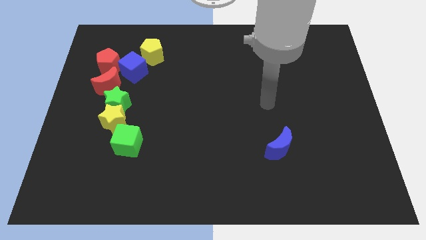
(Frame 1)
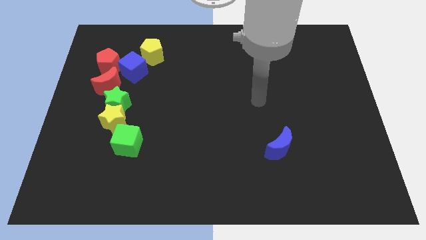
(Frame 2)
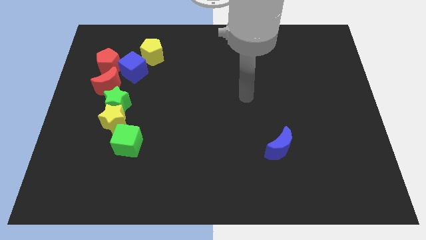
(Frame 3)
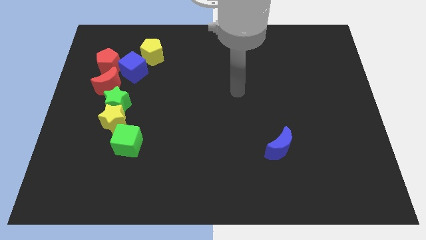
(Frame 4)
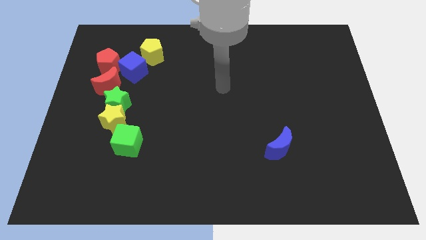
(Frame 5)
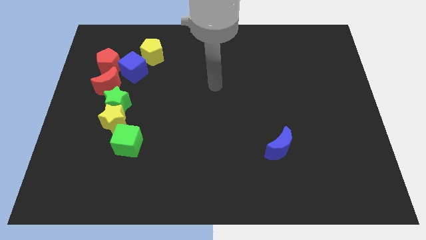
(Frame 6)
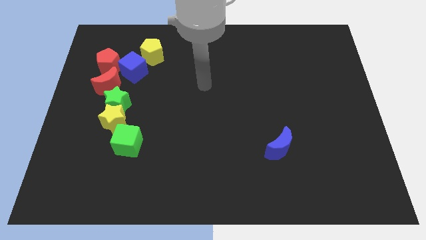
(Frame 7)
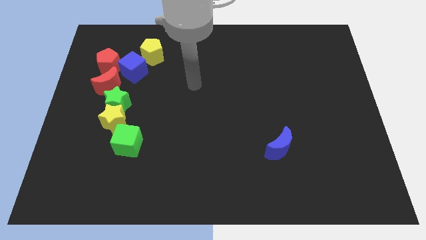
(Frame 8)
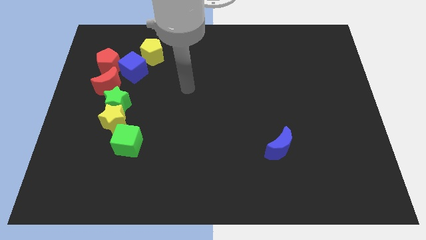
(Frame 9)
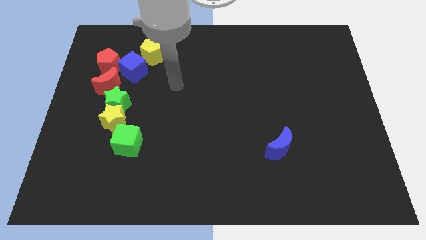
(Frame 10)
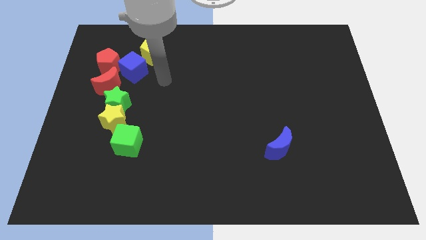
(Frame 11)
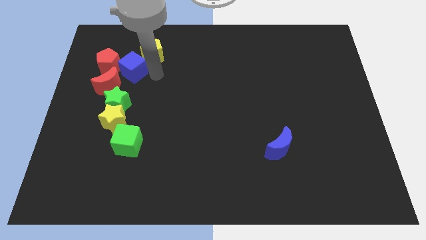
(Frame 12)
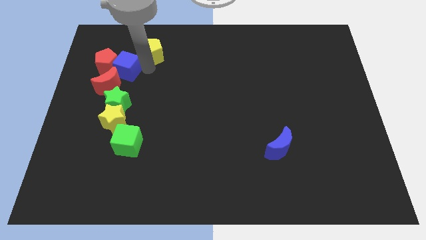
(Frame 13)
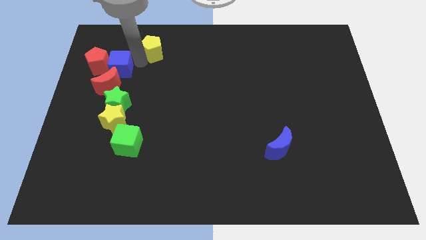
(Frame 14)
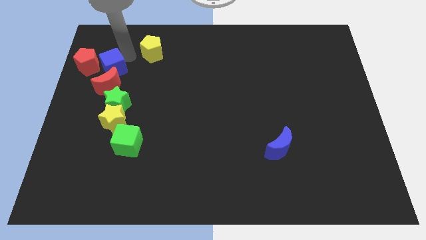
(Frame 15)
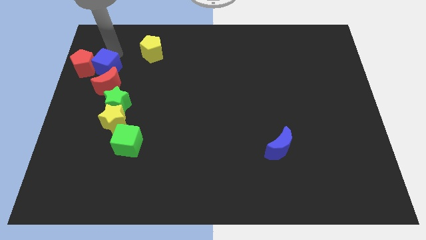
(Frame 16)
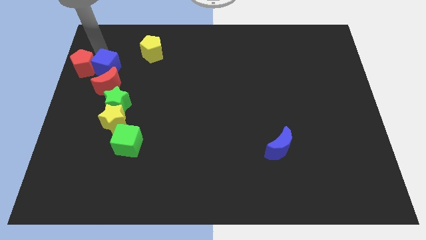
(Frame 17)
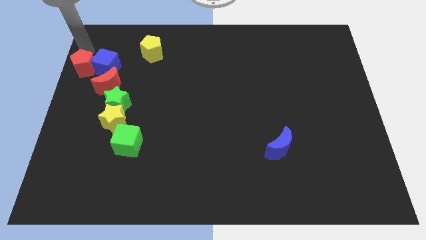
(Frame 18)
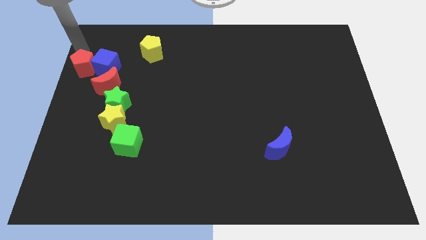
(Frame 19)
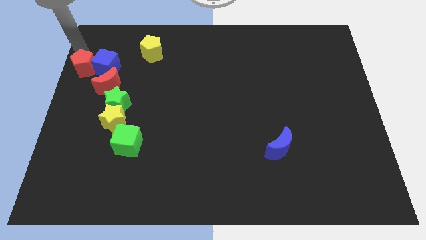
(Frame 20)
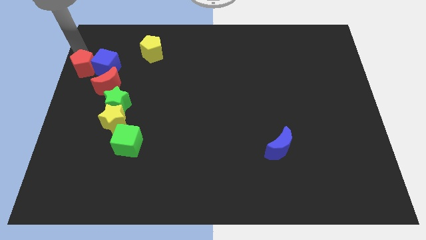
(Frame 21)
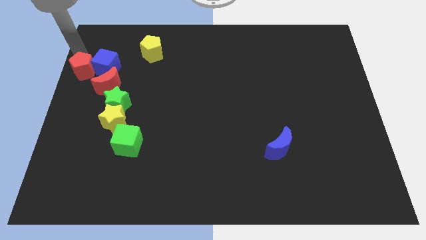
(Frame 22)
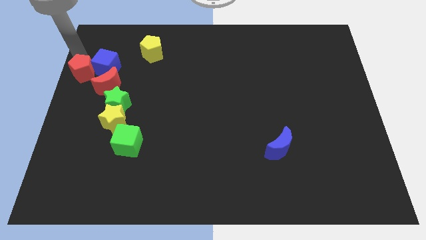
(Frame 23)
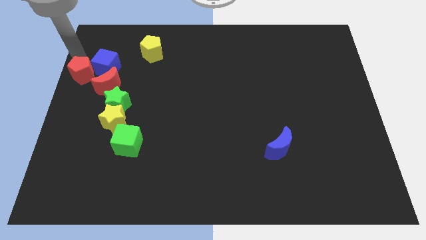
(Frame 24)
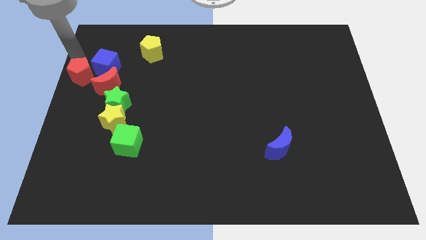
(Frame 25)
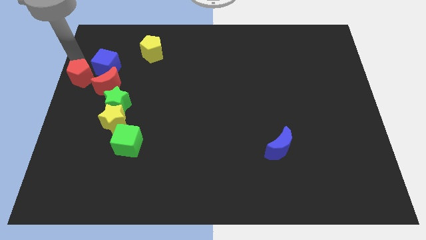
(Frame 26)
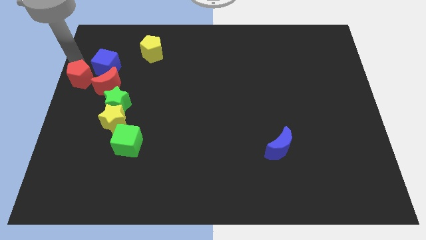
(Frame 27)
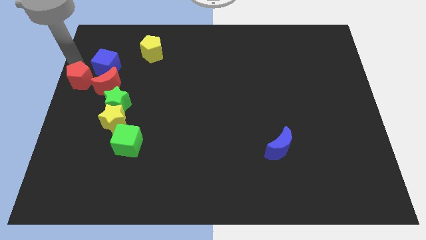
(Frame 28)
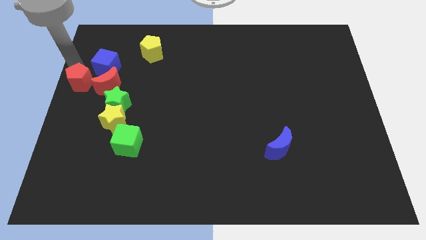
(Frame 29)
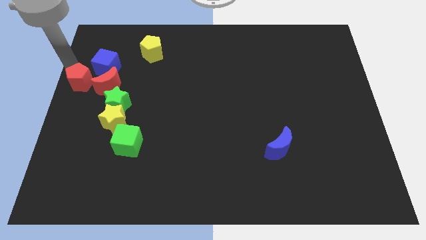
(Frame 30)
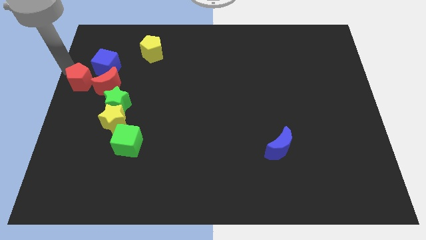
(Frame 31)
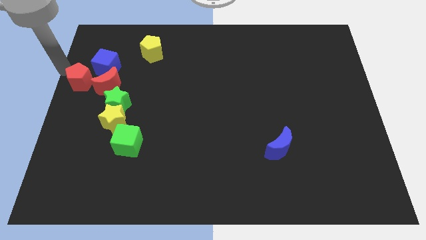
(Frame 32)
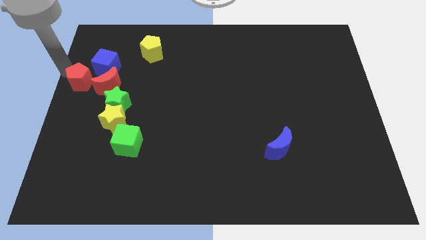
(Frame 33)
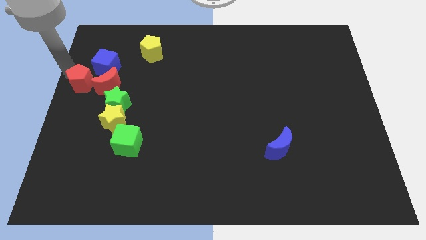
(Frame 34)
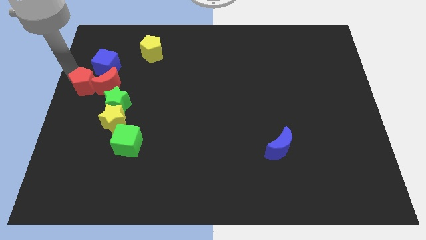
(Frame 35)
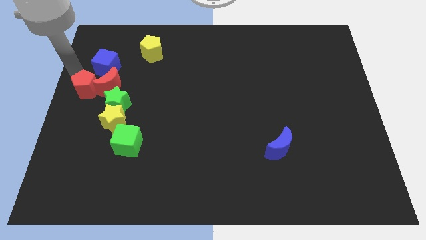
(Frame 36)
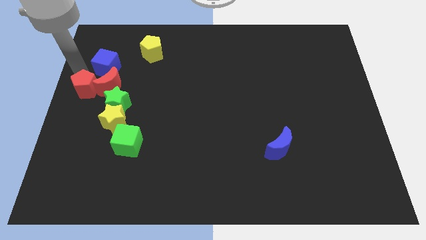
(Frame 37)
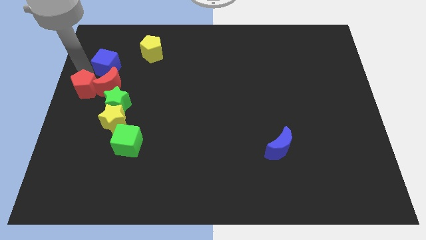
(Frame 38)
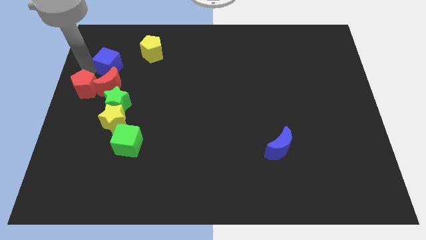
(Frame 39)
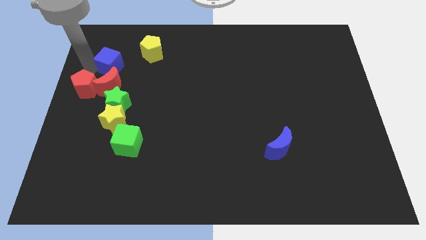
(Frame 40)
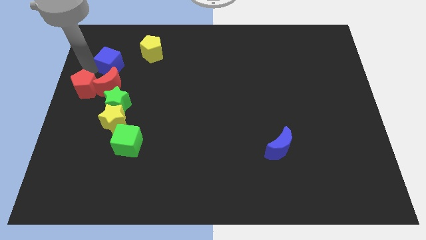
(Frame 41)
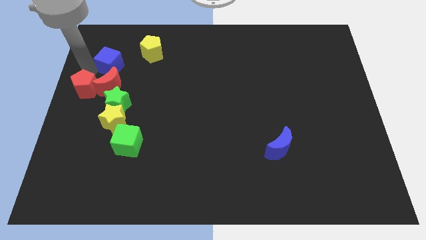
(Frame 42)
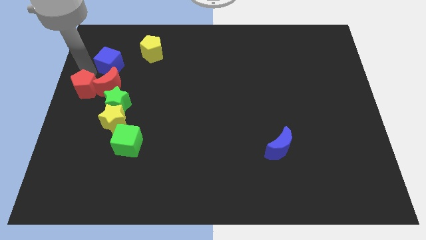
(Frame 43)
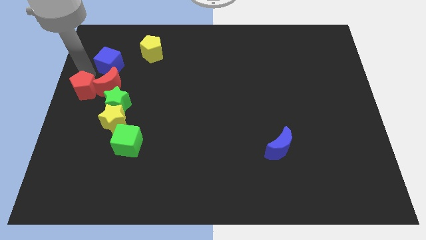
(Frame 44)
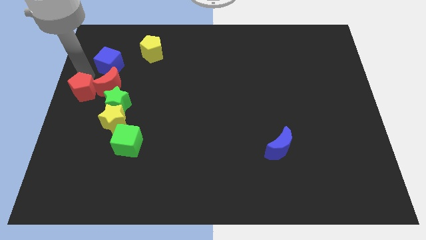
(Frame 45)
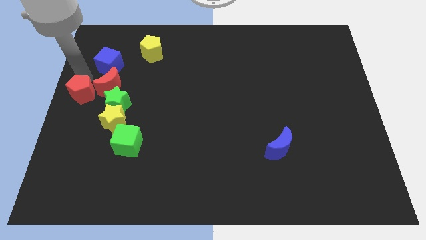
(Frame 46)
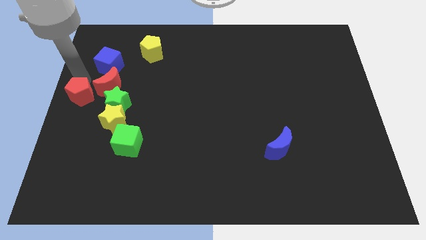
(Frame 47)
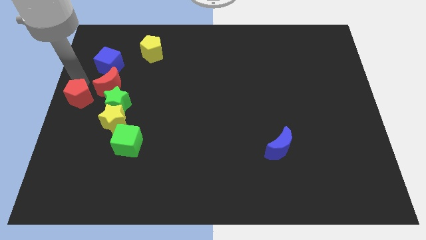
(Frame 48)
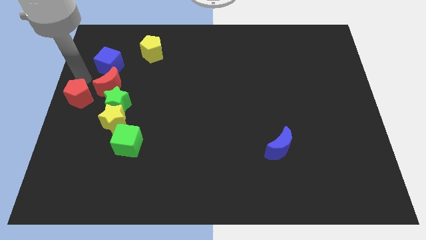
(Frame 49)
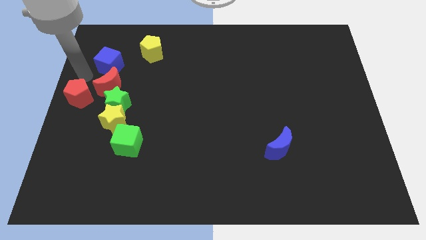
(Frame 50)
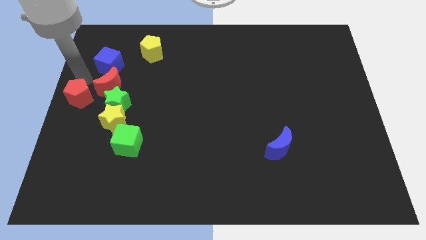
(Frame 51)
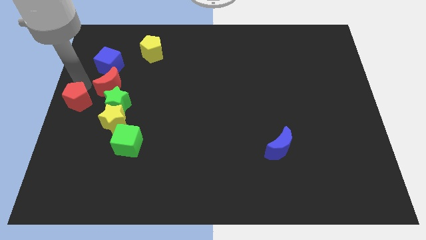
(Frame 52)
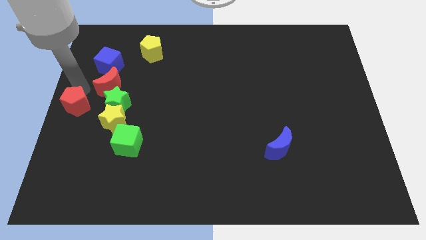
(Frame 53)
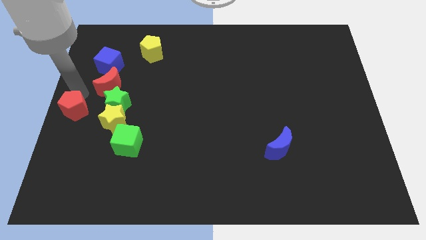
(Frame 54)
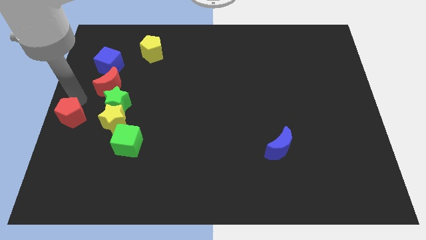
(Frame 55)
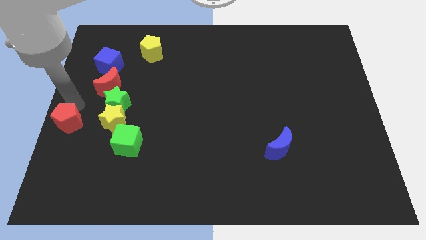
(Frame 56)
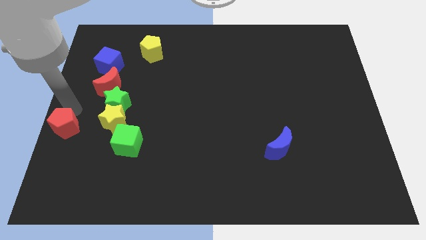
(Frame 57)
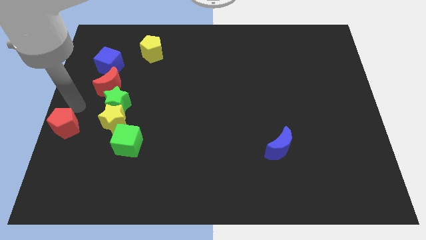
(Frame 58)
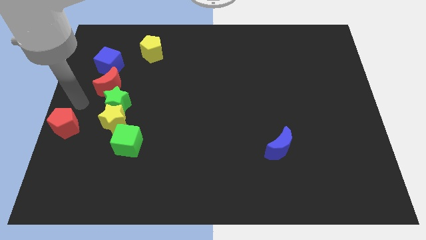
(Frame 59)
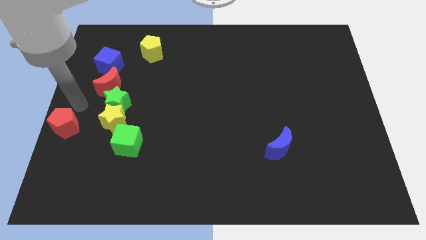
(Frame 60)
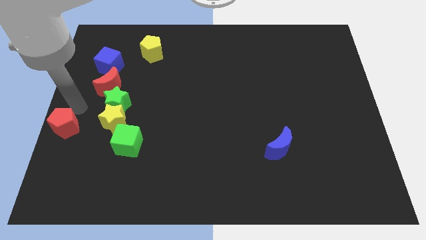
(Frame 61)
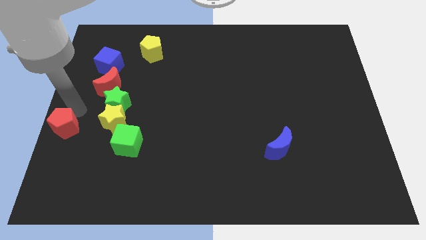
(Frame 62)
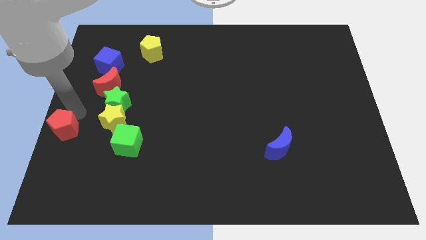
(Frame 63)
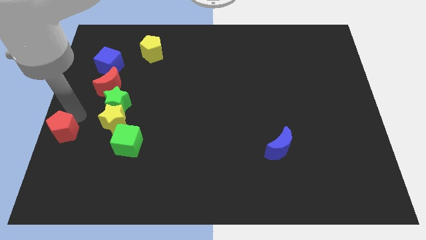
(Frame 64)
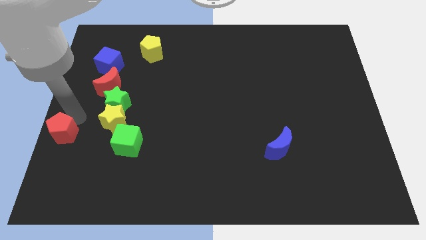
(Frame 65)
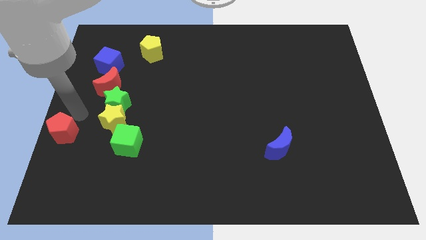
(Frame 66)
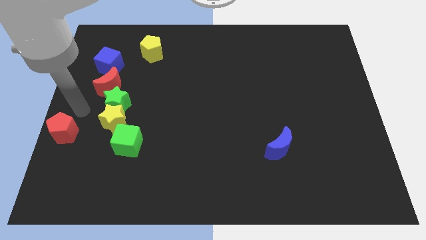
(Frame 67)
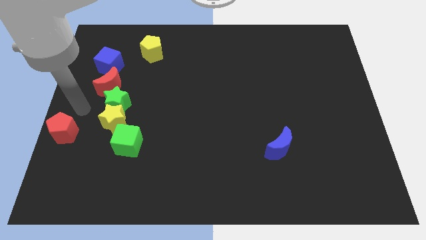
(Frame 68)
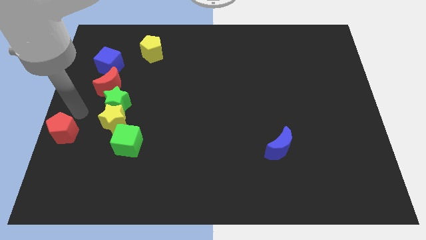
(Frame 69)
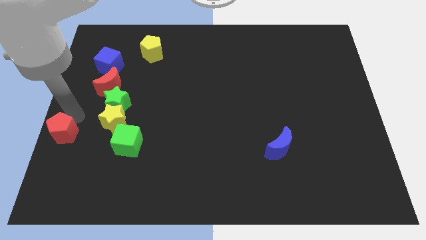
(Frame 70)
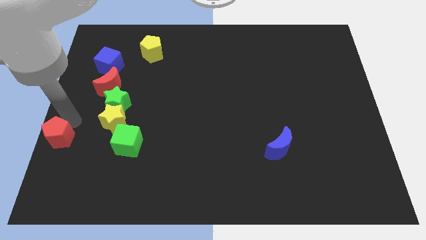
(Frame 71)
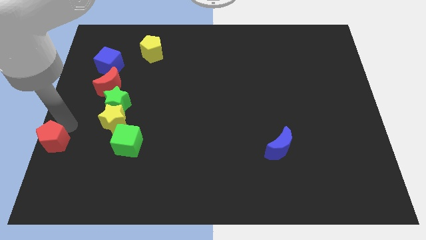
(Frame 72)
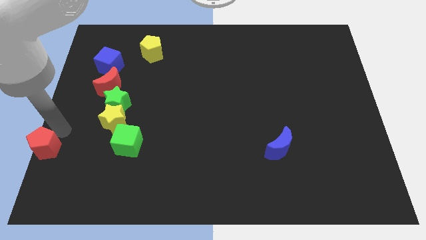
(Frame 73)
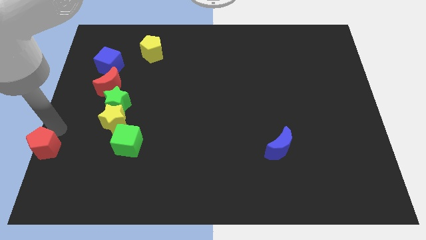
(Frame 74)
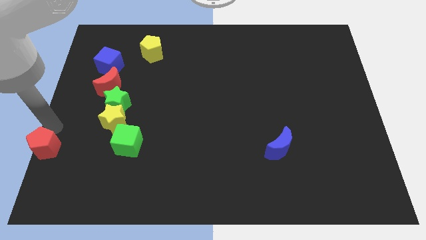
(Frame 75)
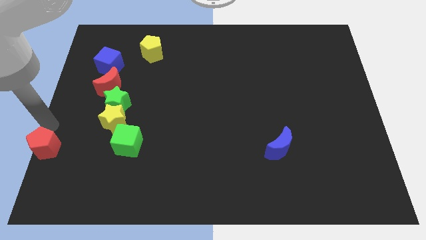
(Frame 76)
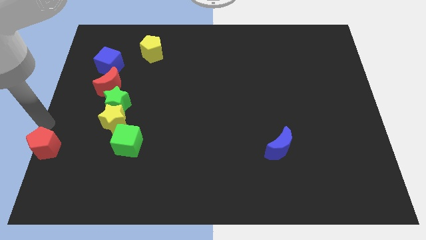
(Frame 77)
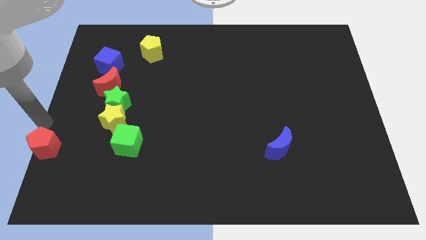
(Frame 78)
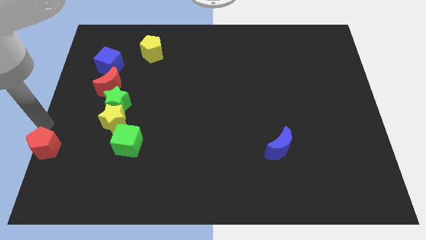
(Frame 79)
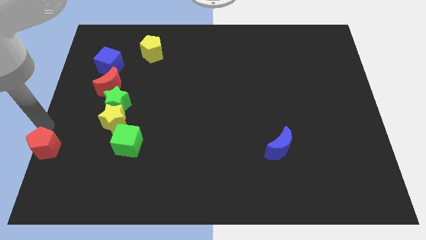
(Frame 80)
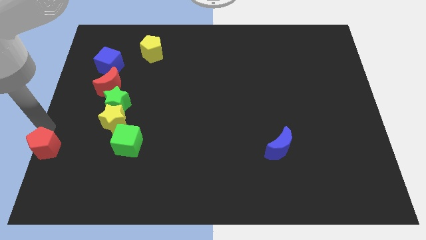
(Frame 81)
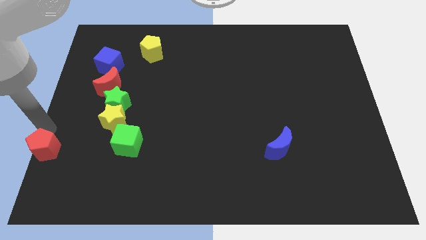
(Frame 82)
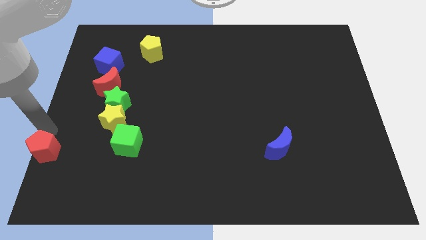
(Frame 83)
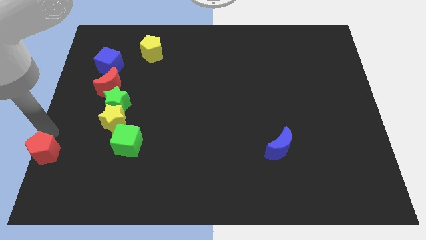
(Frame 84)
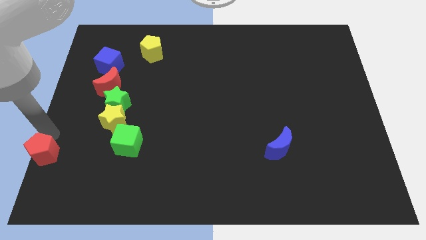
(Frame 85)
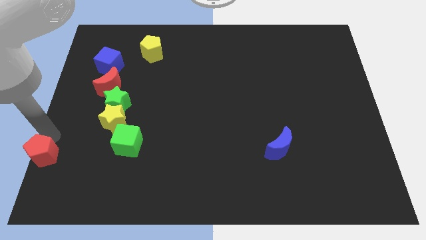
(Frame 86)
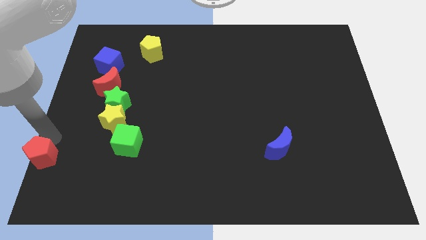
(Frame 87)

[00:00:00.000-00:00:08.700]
slide the red pentagon to the lower left corner
